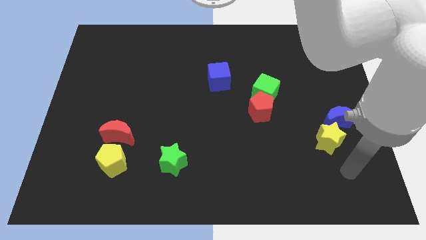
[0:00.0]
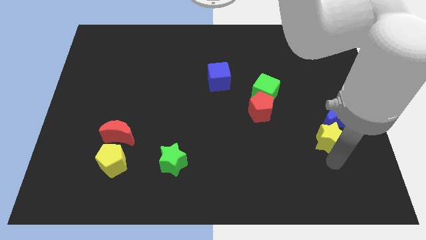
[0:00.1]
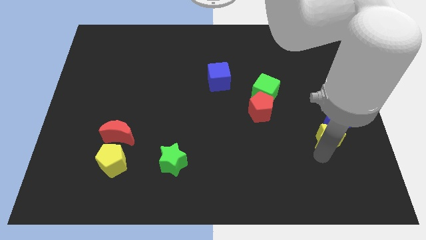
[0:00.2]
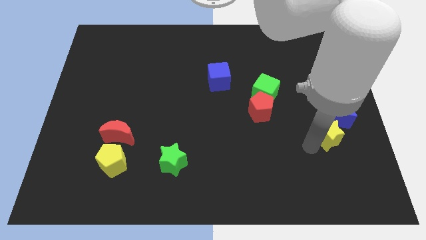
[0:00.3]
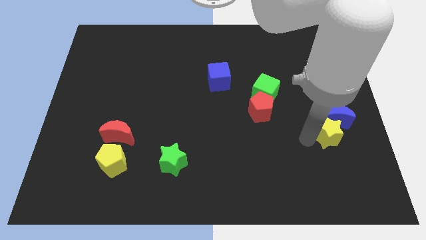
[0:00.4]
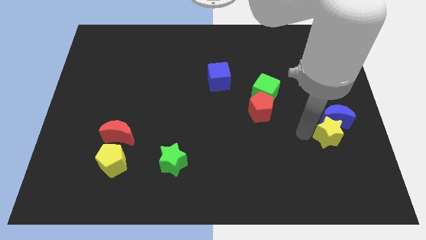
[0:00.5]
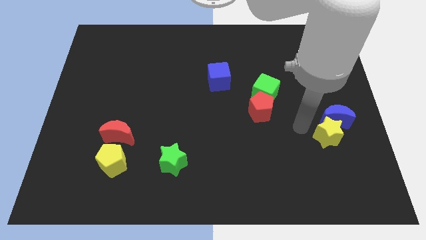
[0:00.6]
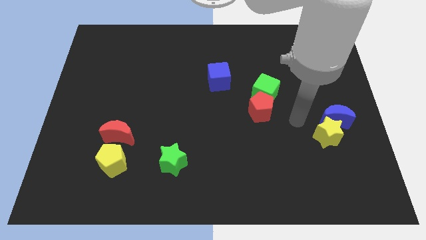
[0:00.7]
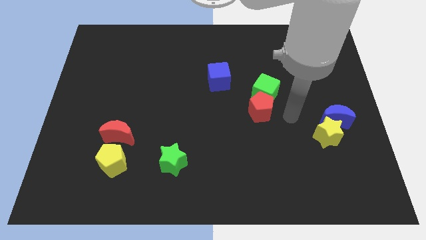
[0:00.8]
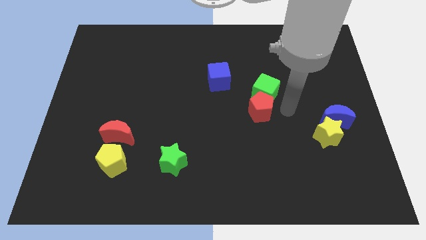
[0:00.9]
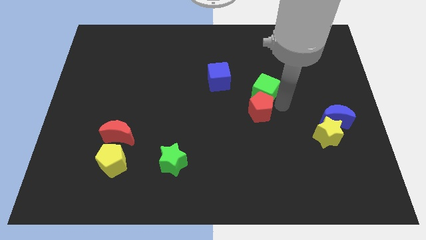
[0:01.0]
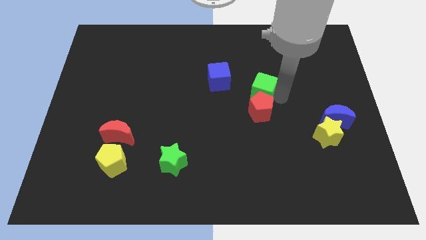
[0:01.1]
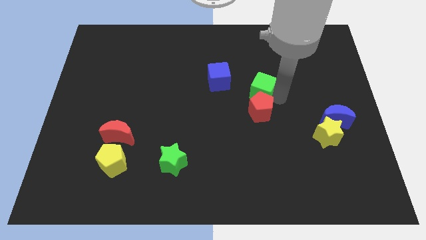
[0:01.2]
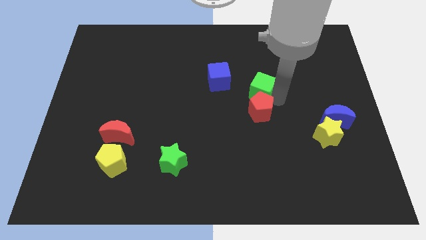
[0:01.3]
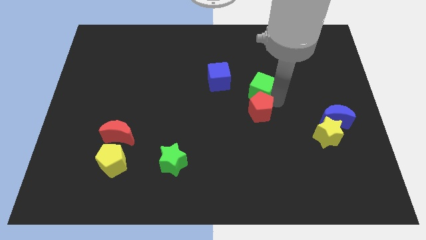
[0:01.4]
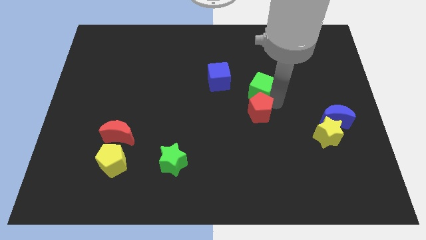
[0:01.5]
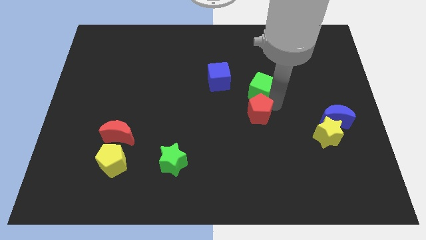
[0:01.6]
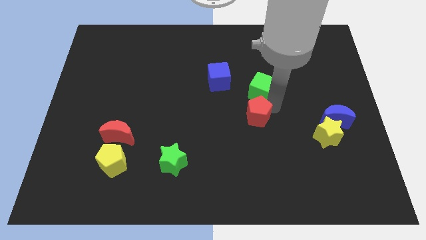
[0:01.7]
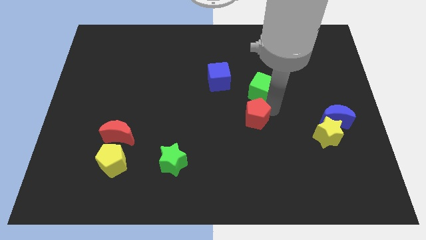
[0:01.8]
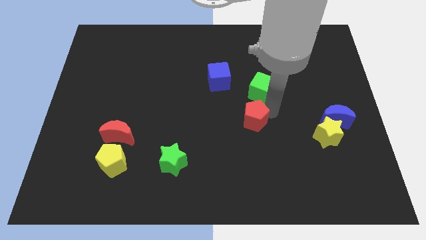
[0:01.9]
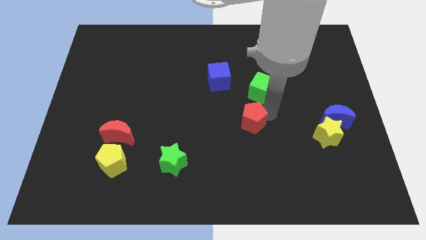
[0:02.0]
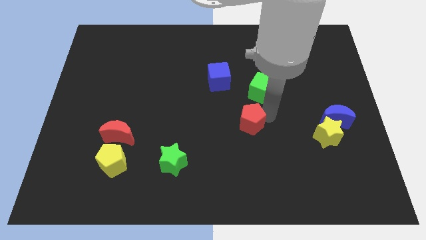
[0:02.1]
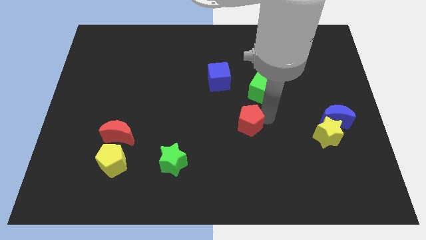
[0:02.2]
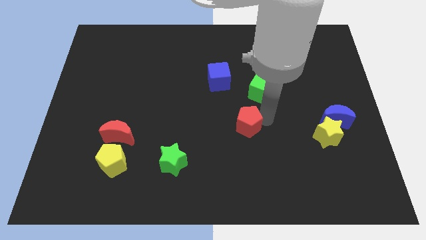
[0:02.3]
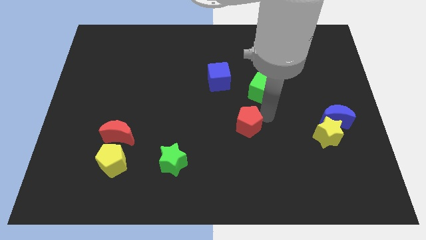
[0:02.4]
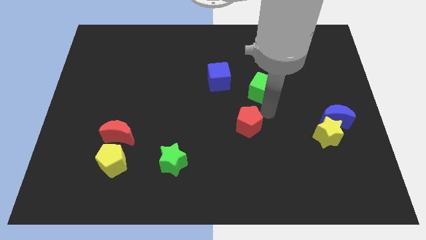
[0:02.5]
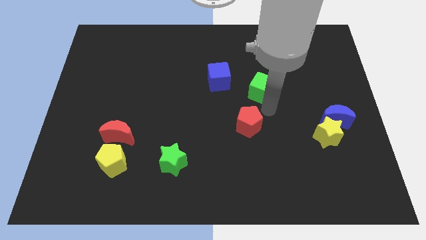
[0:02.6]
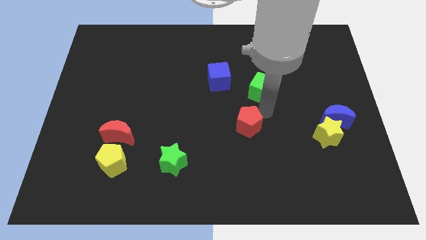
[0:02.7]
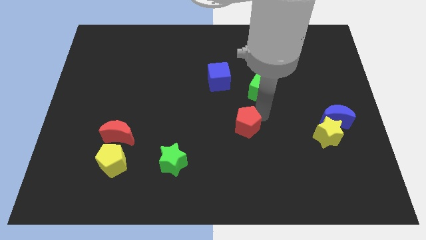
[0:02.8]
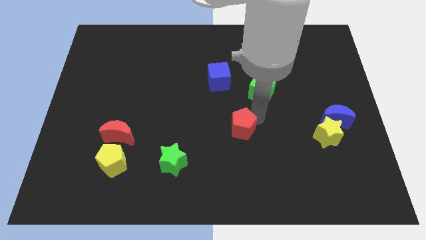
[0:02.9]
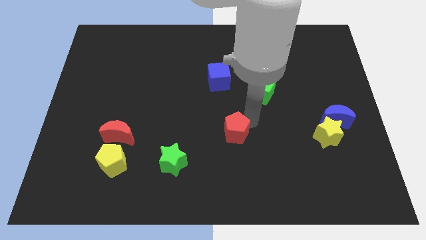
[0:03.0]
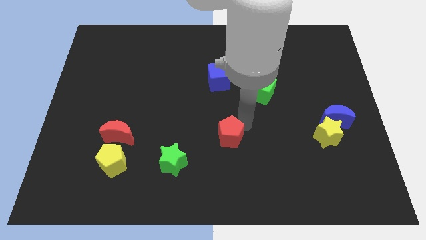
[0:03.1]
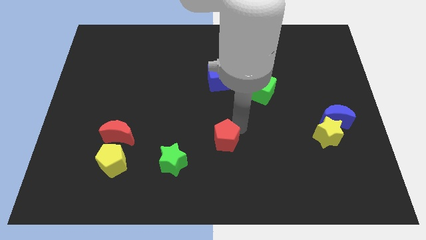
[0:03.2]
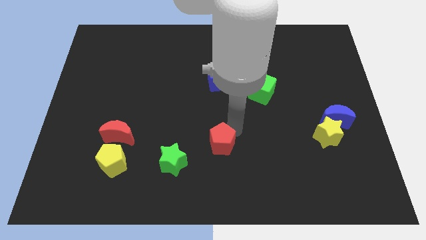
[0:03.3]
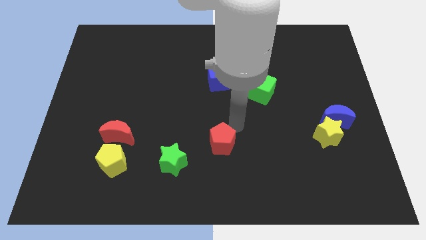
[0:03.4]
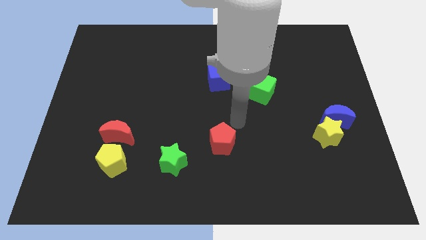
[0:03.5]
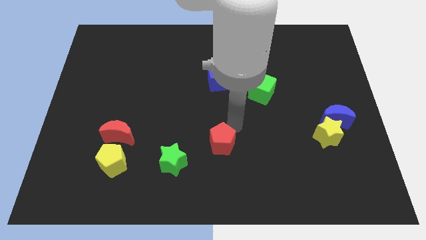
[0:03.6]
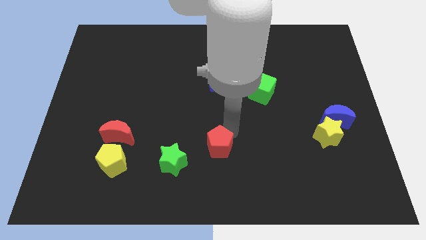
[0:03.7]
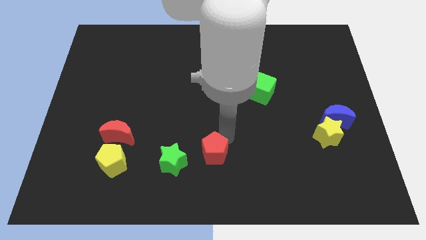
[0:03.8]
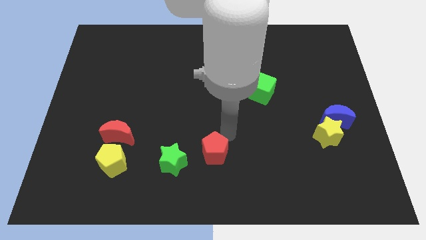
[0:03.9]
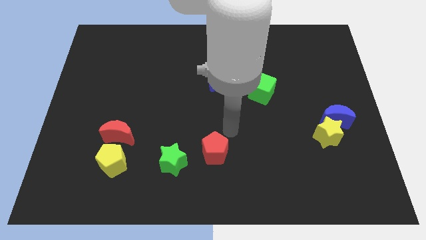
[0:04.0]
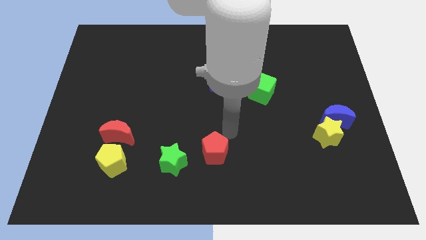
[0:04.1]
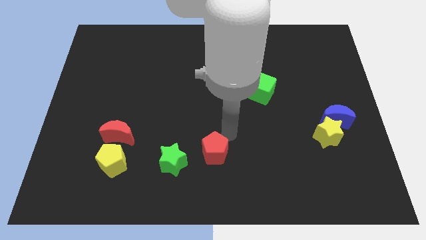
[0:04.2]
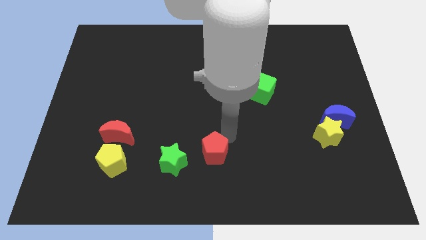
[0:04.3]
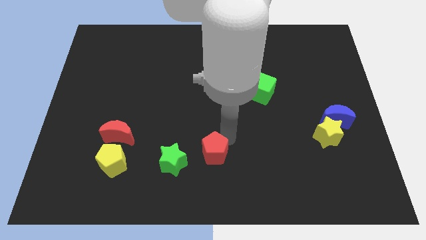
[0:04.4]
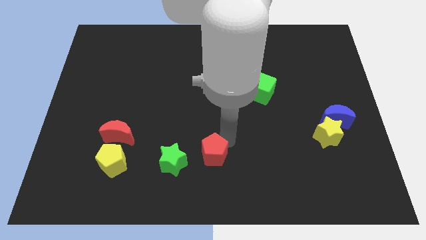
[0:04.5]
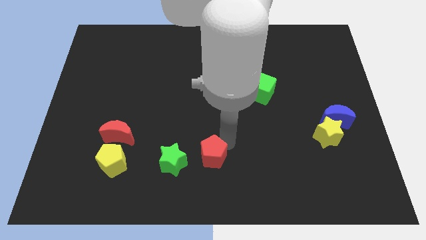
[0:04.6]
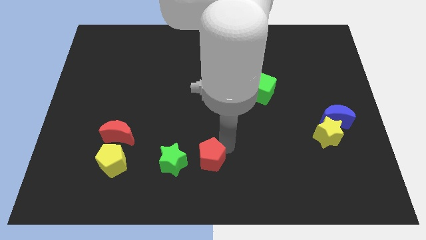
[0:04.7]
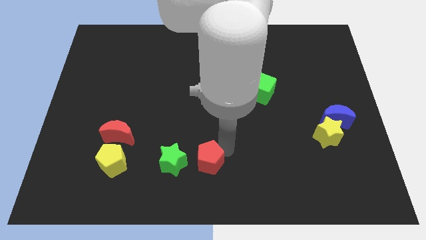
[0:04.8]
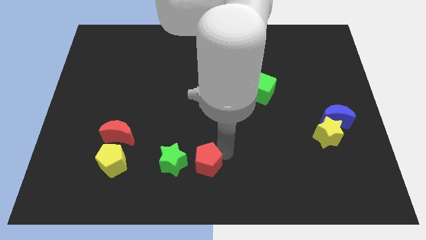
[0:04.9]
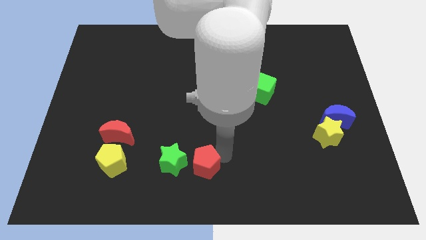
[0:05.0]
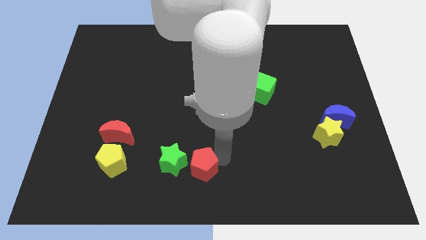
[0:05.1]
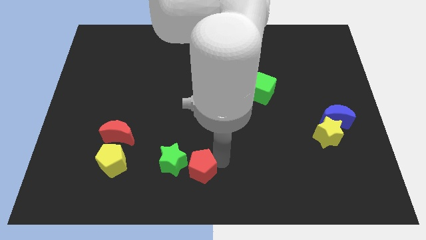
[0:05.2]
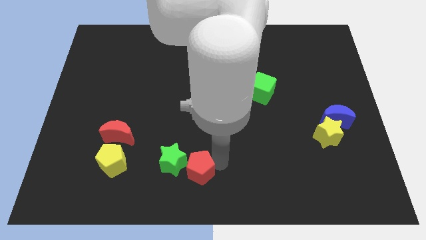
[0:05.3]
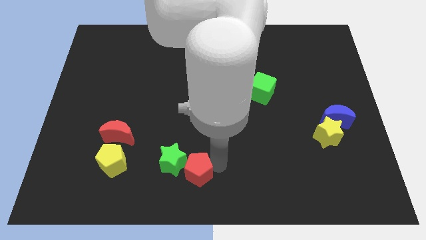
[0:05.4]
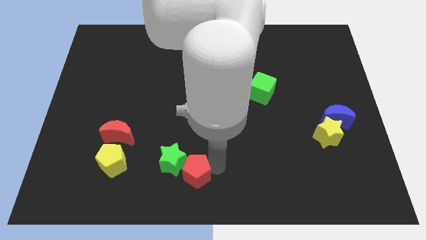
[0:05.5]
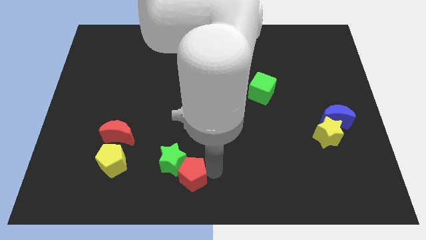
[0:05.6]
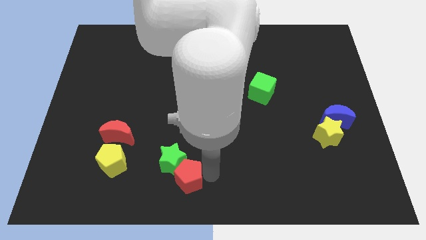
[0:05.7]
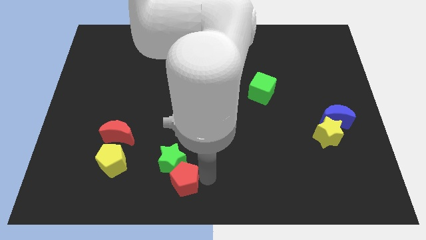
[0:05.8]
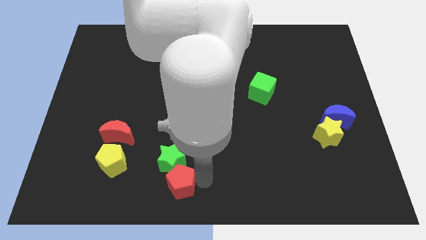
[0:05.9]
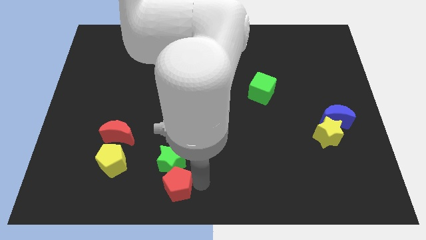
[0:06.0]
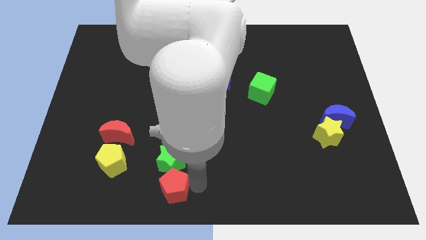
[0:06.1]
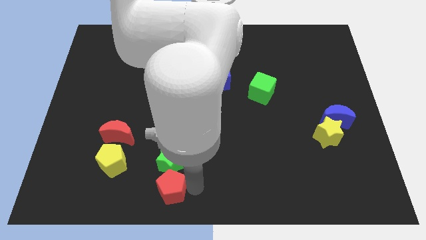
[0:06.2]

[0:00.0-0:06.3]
move the red pentagon diagonally down and to the left of the green star

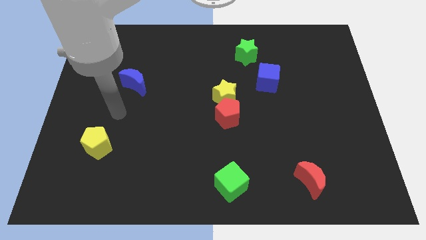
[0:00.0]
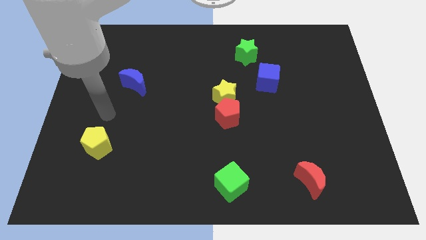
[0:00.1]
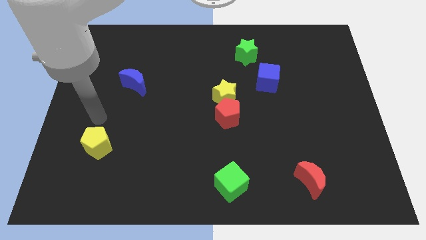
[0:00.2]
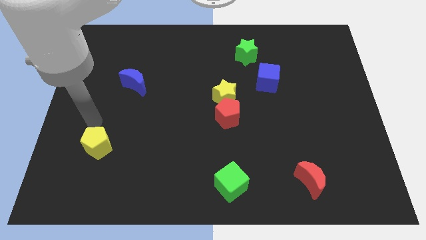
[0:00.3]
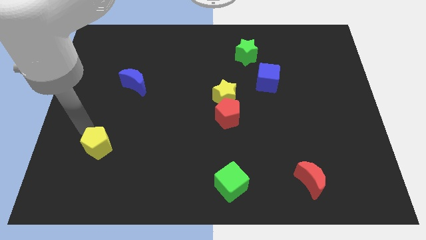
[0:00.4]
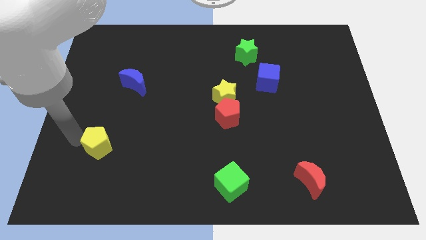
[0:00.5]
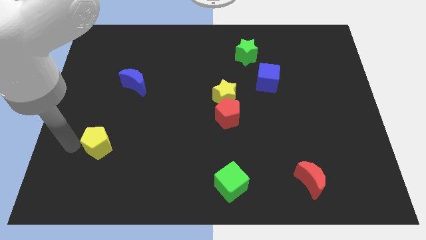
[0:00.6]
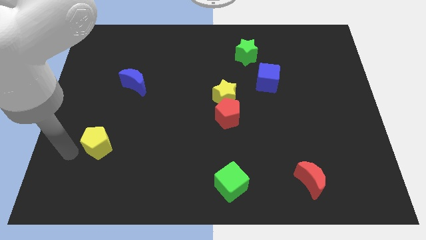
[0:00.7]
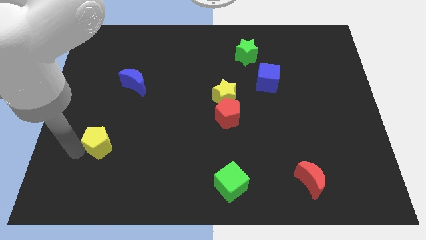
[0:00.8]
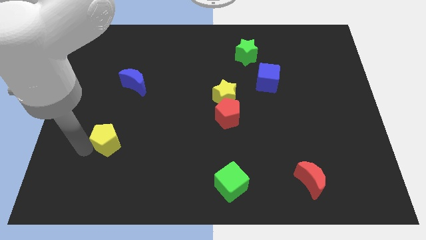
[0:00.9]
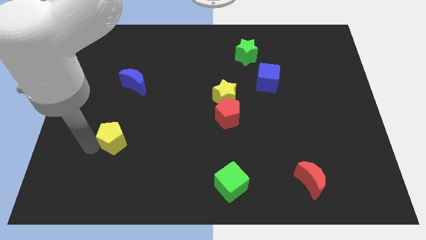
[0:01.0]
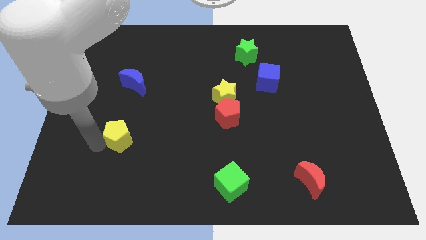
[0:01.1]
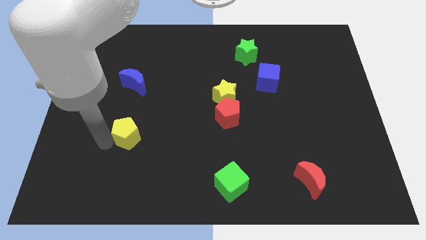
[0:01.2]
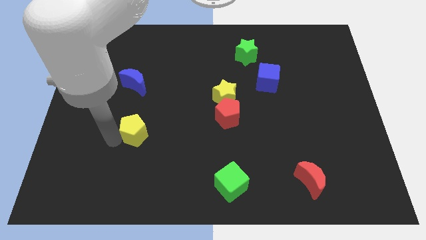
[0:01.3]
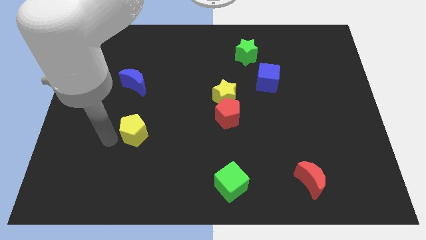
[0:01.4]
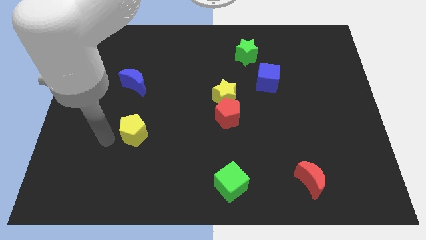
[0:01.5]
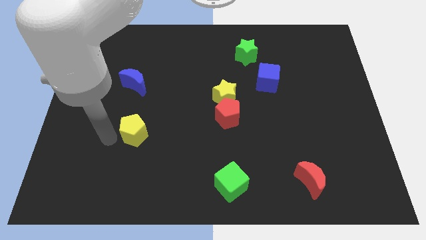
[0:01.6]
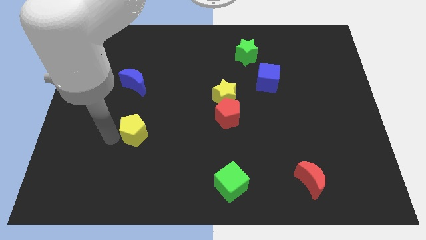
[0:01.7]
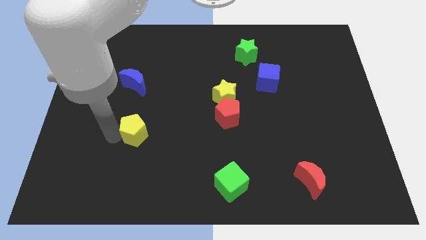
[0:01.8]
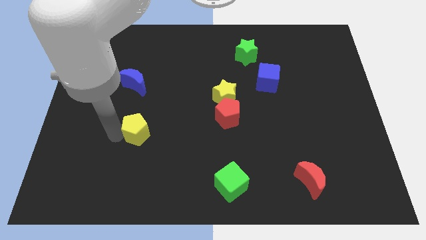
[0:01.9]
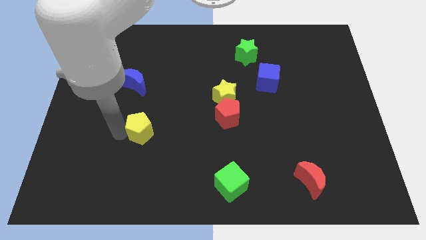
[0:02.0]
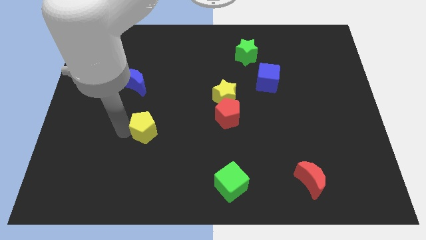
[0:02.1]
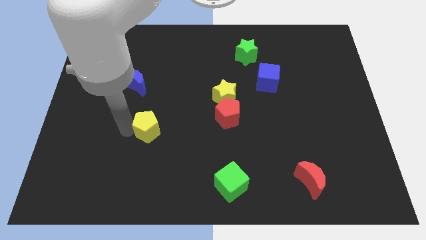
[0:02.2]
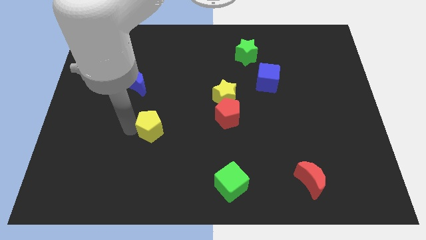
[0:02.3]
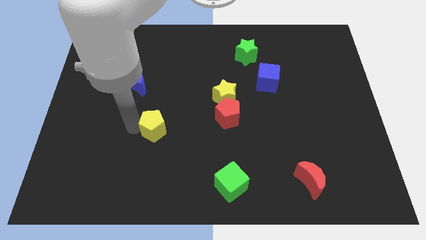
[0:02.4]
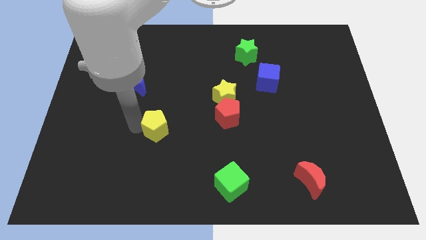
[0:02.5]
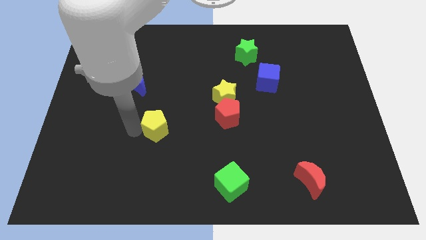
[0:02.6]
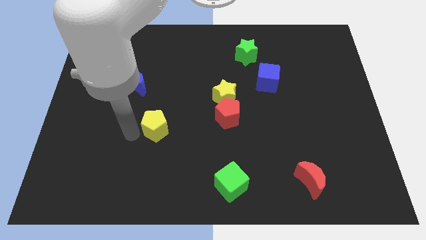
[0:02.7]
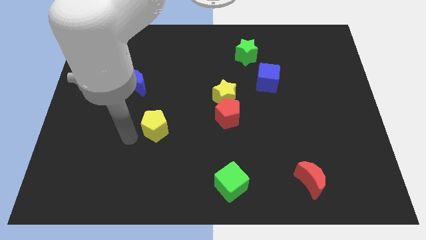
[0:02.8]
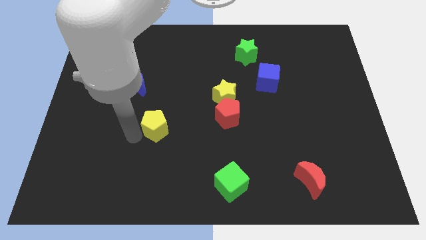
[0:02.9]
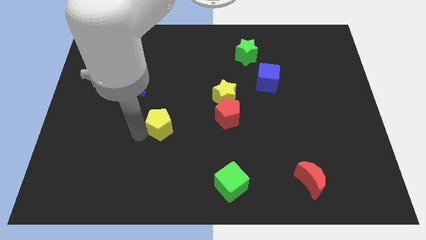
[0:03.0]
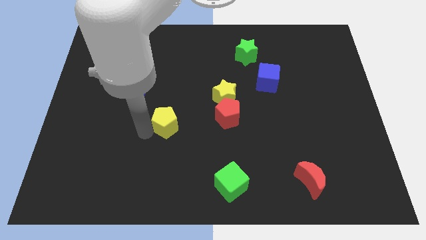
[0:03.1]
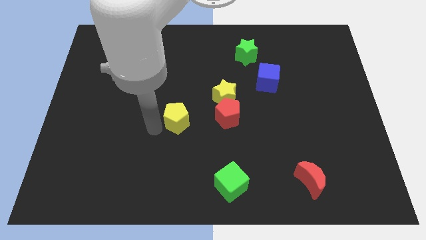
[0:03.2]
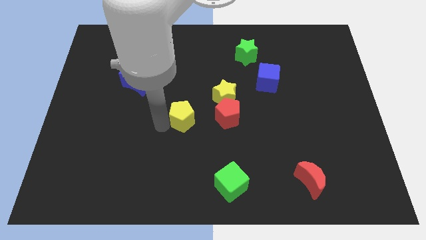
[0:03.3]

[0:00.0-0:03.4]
slide the yellow pentagon to the bottom left of the yellow star
